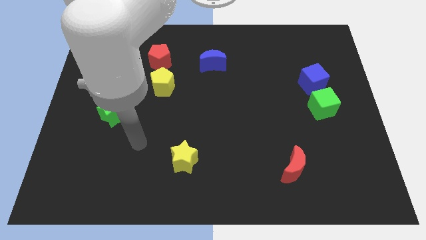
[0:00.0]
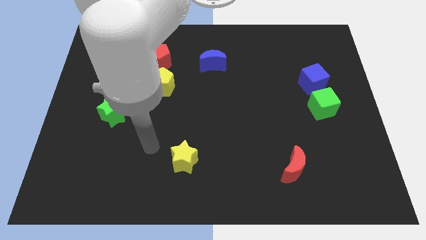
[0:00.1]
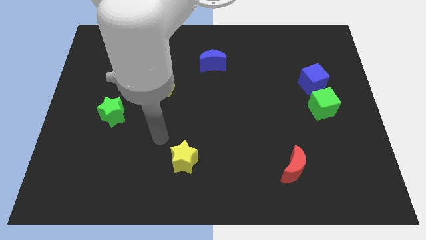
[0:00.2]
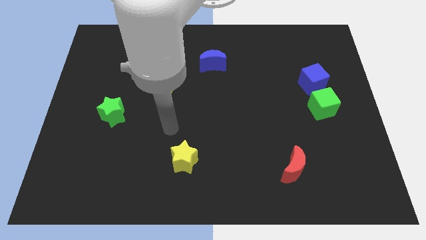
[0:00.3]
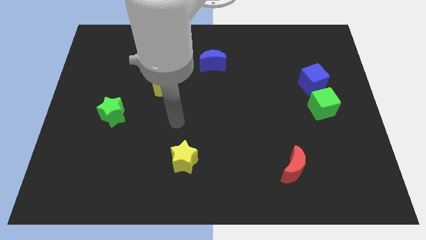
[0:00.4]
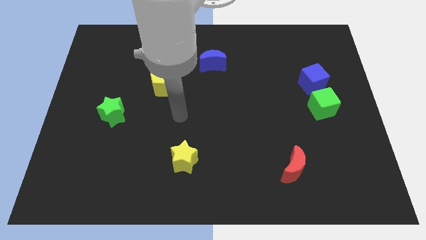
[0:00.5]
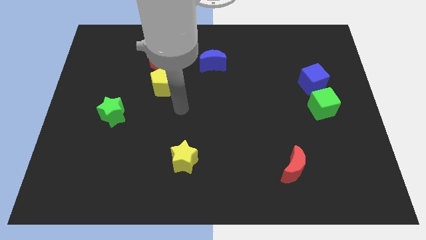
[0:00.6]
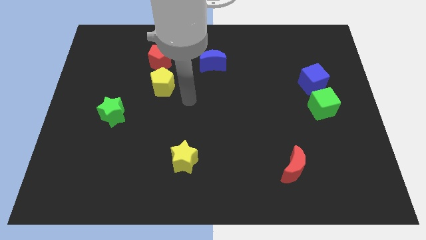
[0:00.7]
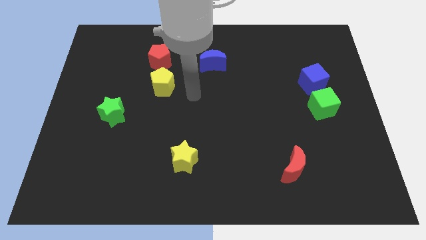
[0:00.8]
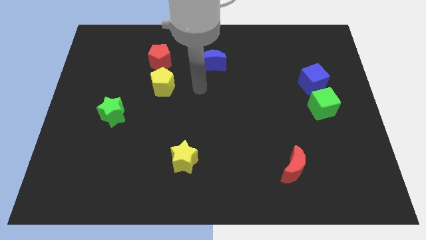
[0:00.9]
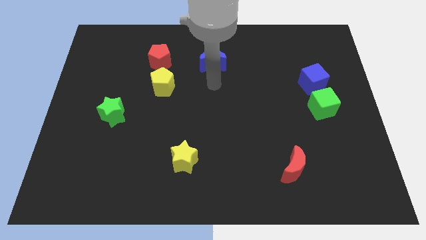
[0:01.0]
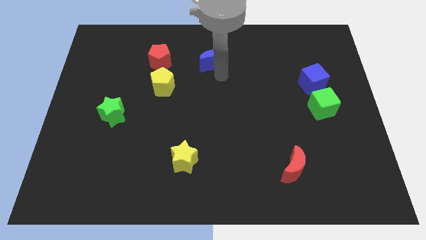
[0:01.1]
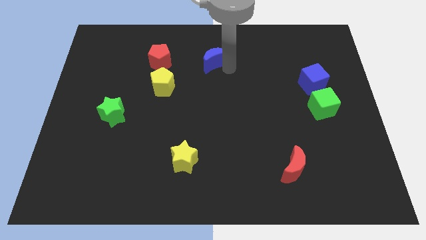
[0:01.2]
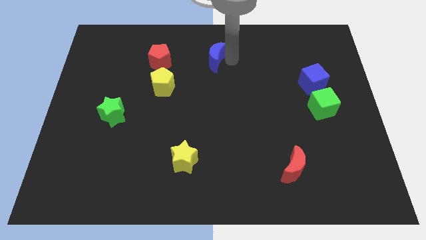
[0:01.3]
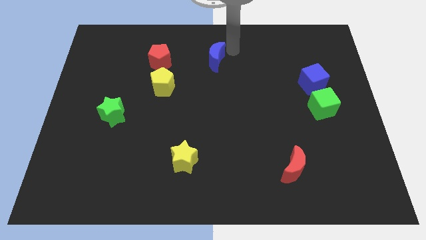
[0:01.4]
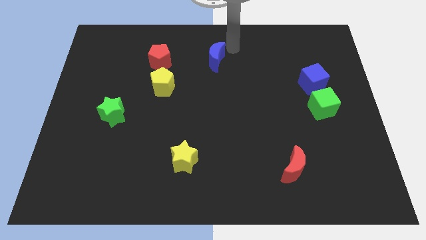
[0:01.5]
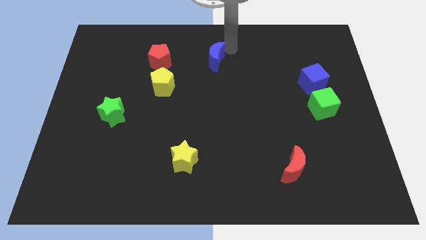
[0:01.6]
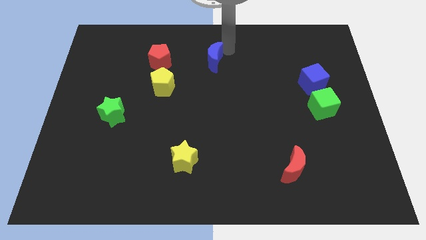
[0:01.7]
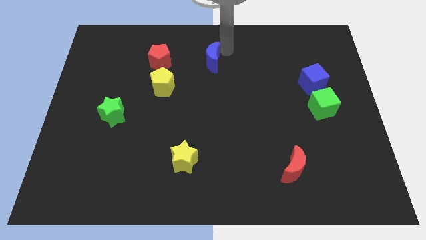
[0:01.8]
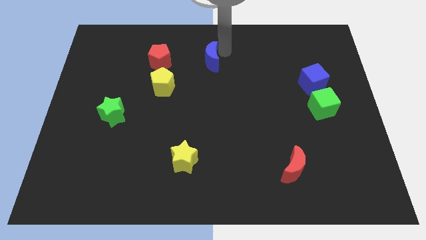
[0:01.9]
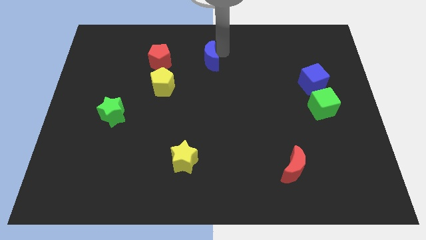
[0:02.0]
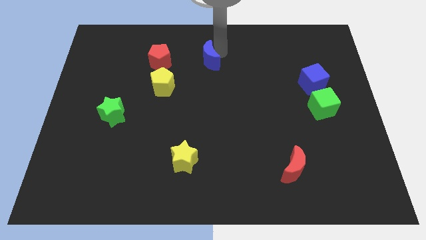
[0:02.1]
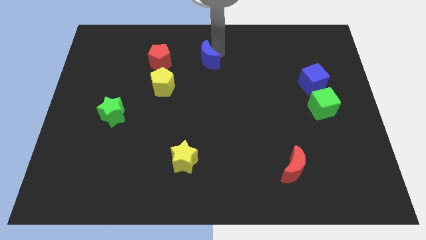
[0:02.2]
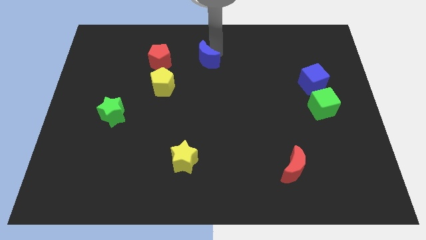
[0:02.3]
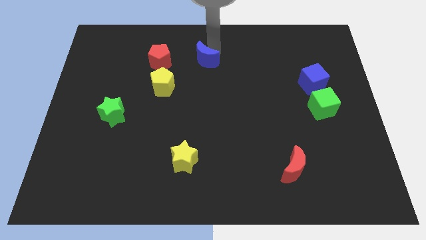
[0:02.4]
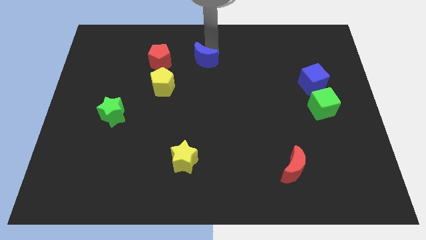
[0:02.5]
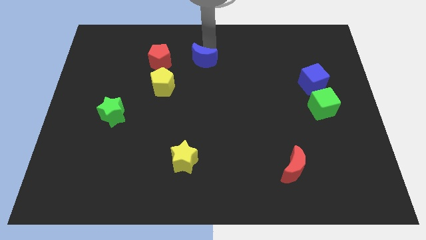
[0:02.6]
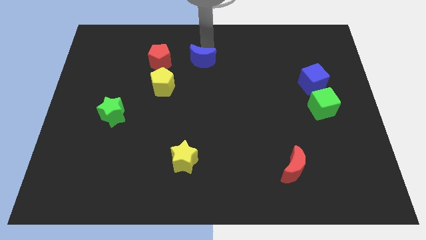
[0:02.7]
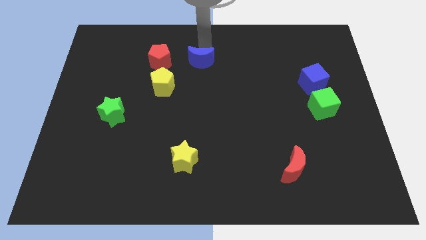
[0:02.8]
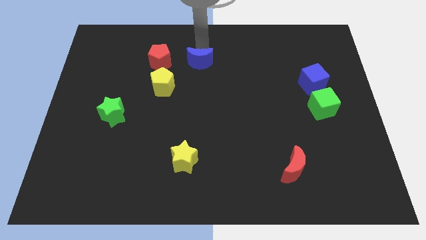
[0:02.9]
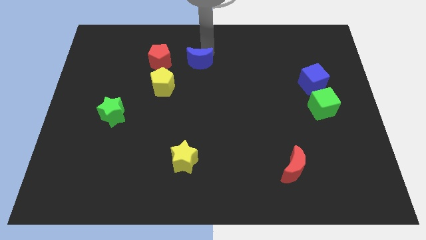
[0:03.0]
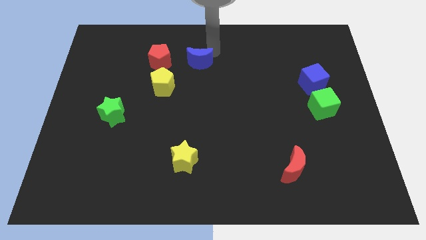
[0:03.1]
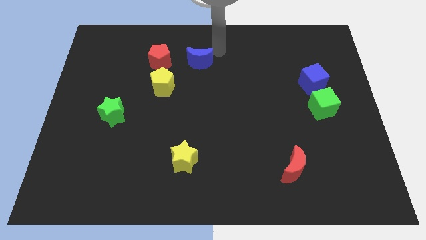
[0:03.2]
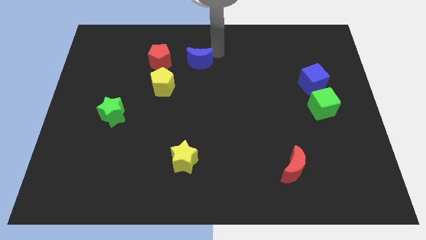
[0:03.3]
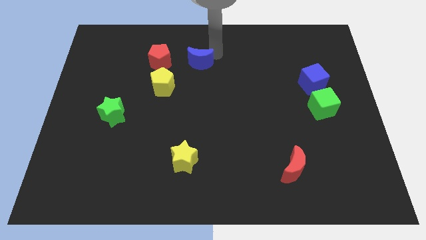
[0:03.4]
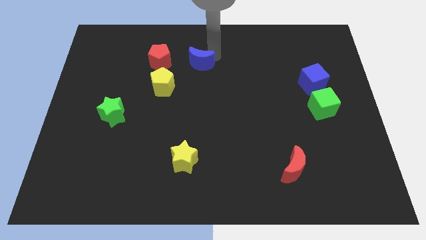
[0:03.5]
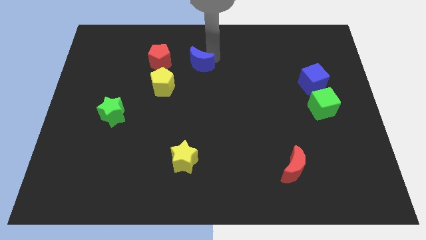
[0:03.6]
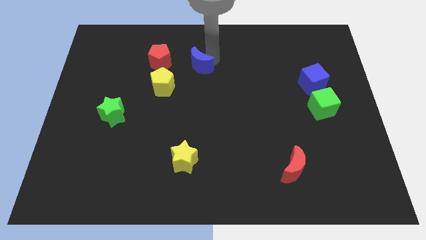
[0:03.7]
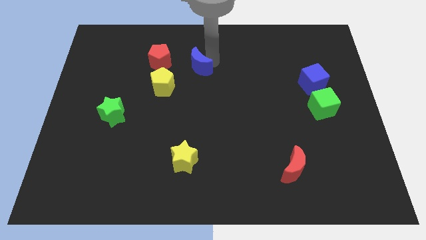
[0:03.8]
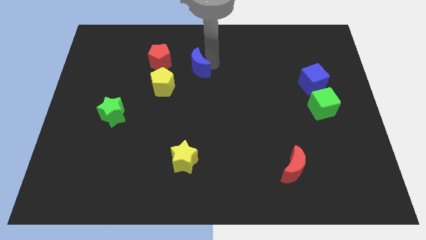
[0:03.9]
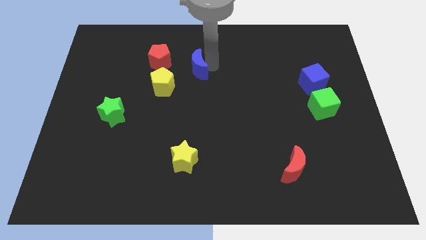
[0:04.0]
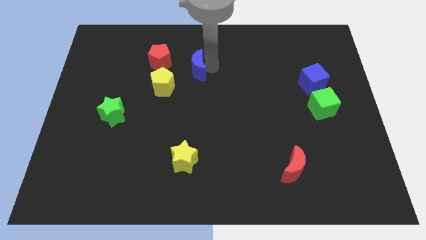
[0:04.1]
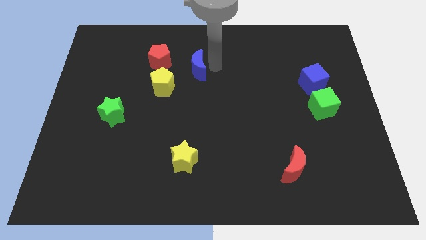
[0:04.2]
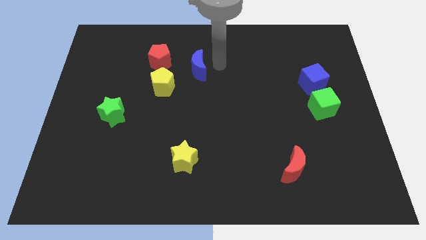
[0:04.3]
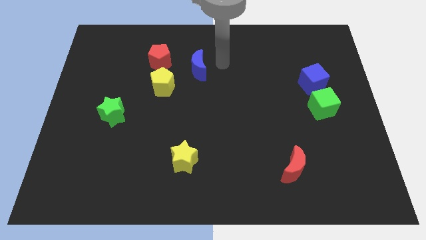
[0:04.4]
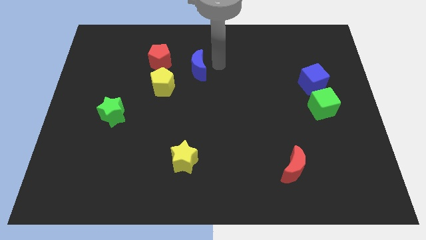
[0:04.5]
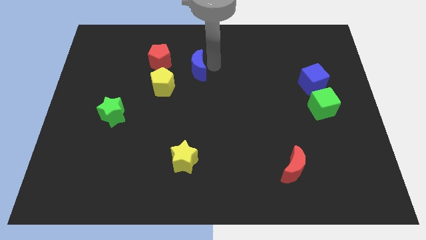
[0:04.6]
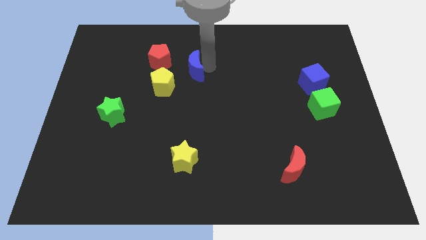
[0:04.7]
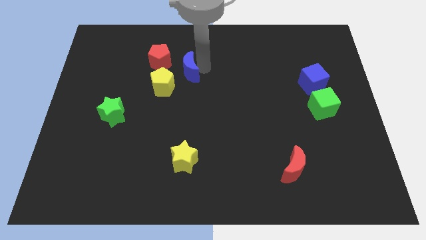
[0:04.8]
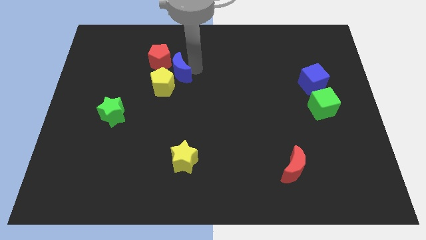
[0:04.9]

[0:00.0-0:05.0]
put the blue moon to the yellow pentagon

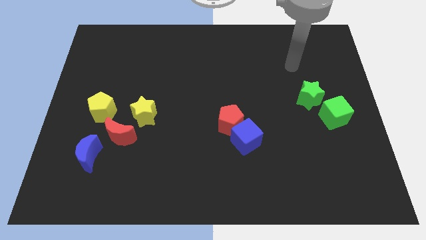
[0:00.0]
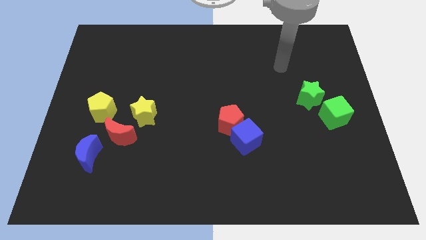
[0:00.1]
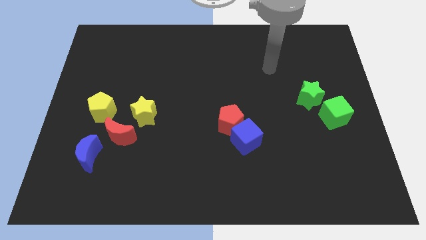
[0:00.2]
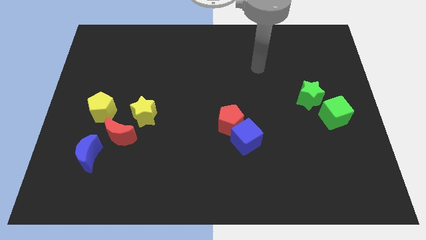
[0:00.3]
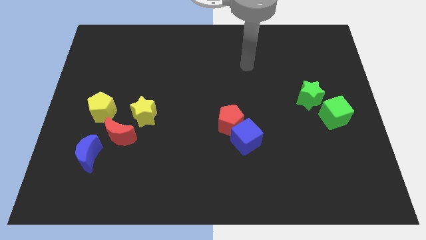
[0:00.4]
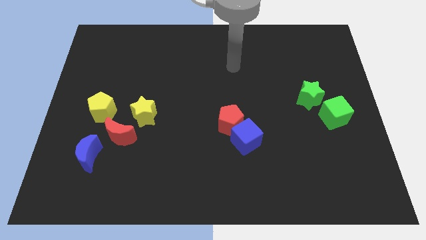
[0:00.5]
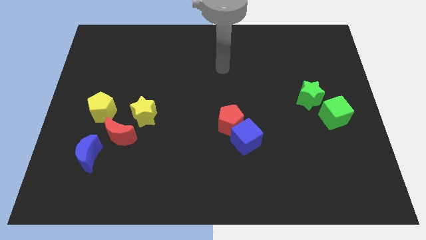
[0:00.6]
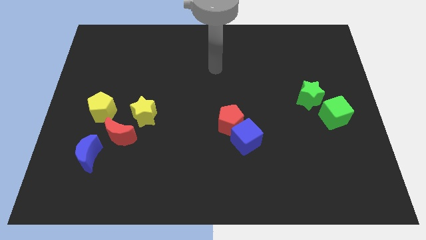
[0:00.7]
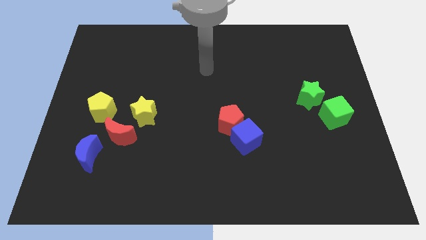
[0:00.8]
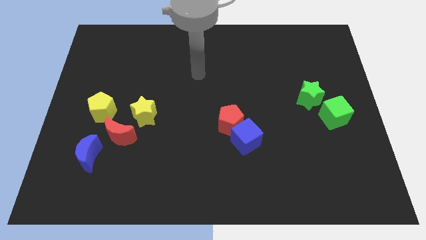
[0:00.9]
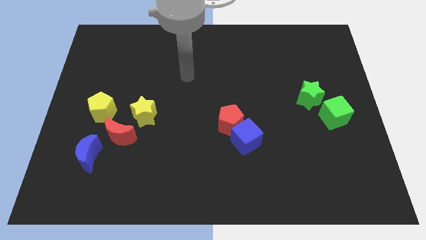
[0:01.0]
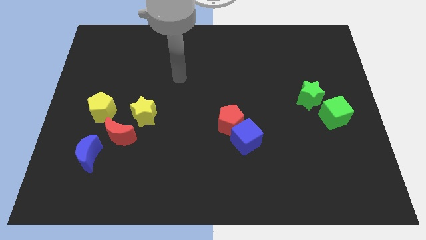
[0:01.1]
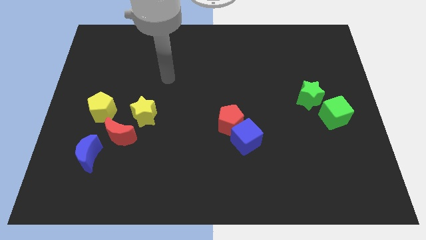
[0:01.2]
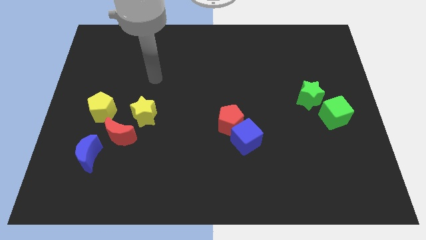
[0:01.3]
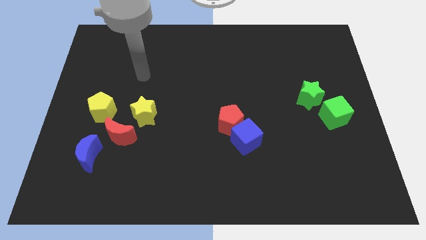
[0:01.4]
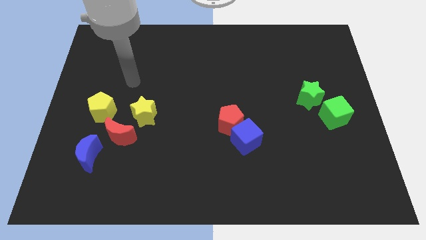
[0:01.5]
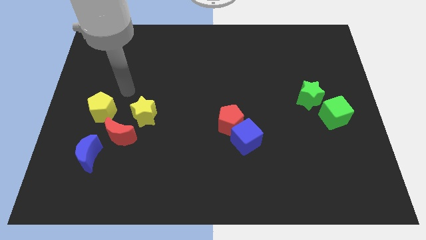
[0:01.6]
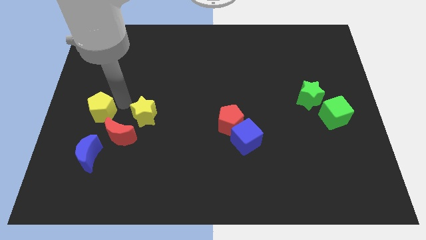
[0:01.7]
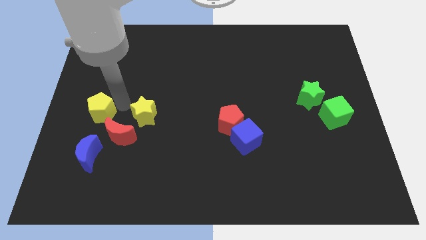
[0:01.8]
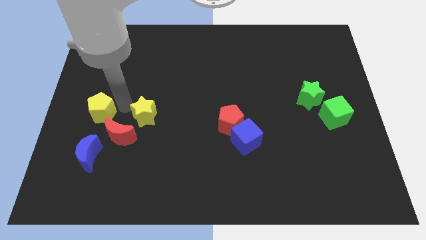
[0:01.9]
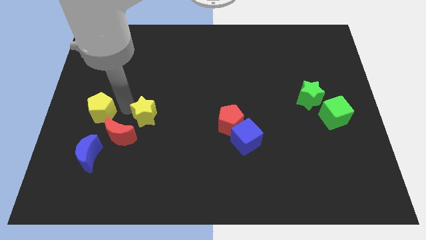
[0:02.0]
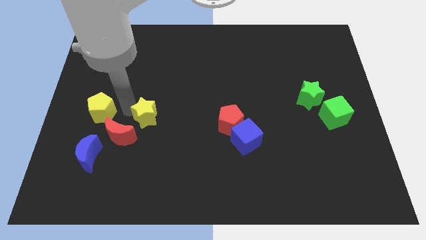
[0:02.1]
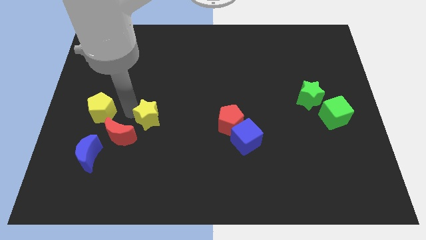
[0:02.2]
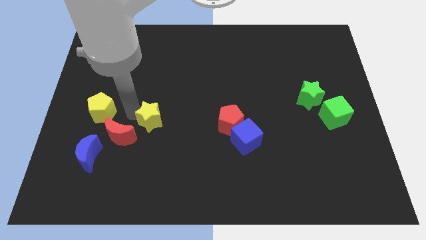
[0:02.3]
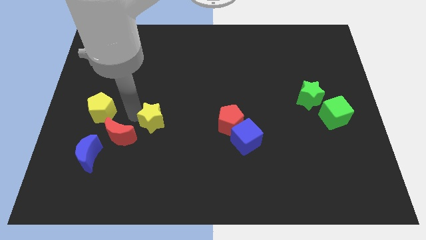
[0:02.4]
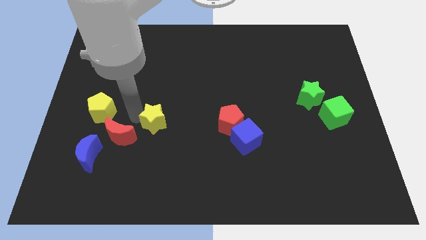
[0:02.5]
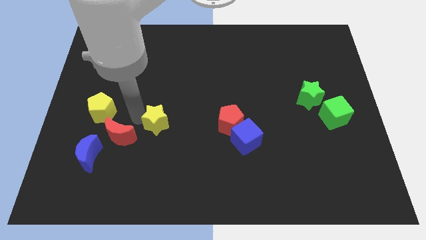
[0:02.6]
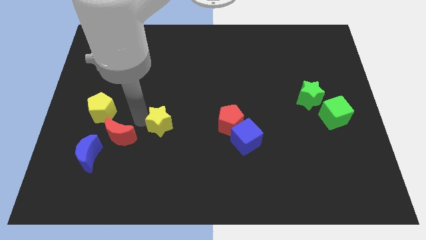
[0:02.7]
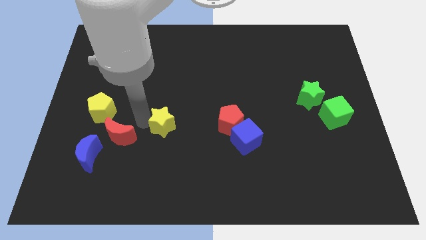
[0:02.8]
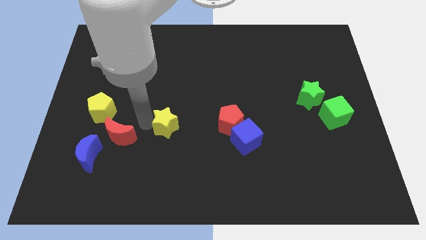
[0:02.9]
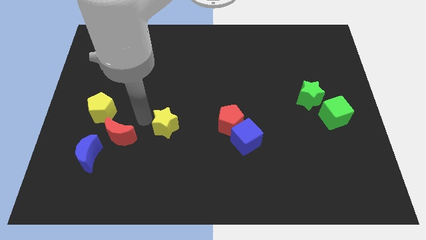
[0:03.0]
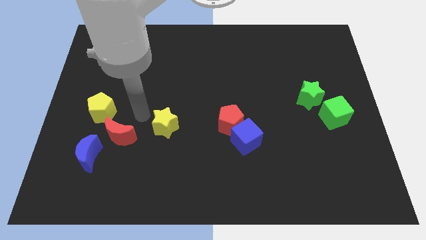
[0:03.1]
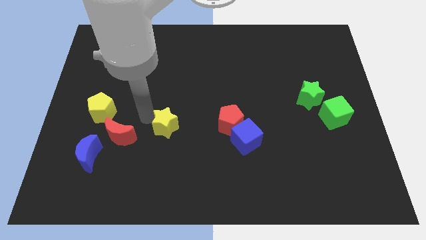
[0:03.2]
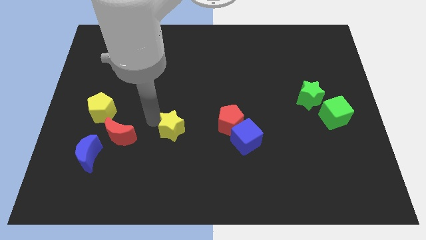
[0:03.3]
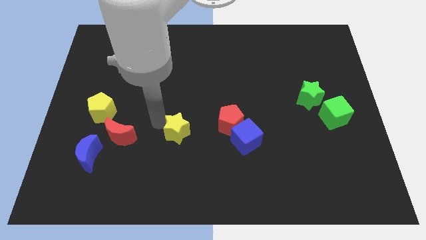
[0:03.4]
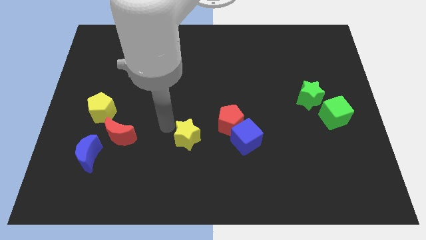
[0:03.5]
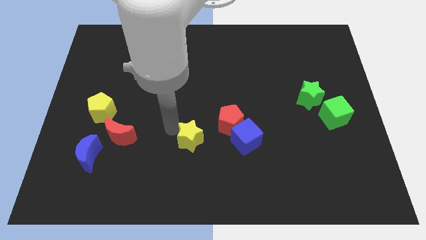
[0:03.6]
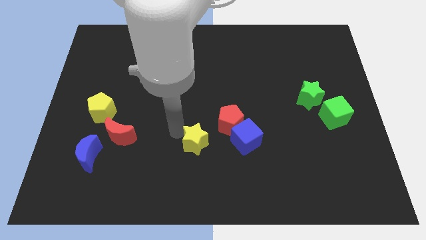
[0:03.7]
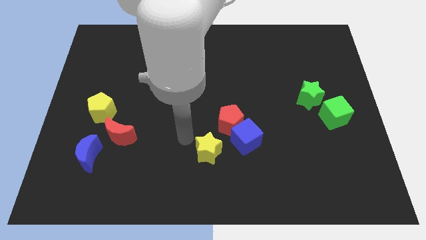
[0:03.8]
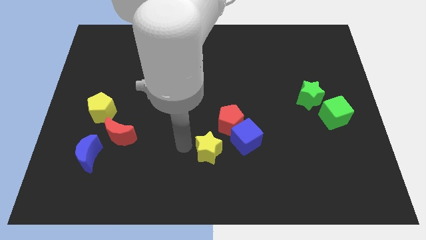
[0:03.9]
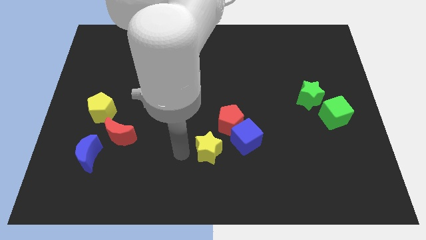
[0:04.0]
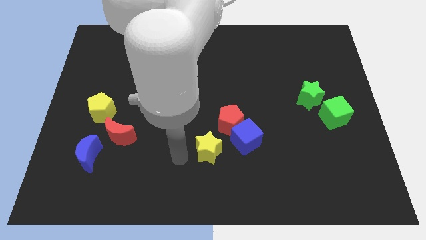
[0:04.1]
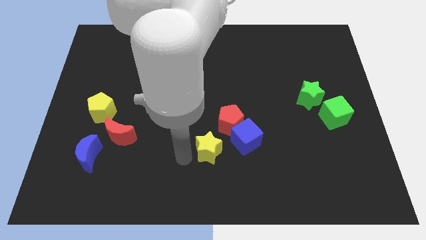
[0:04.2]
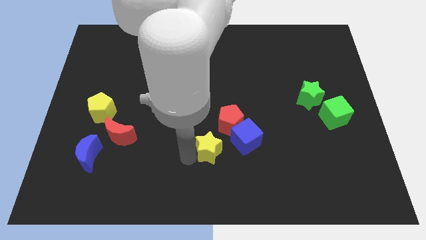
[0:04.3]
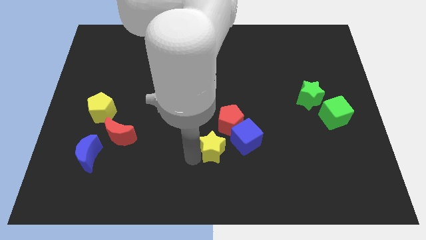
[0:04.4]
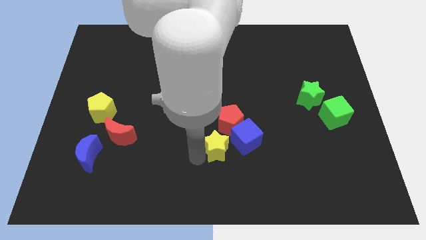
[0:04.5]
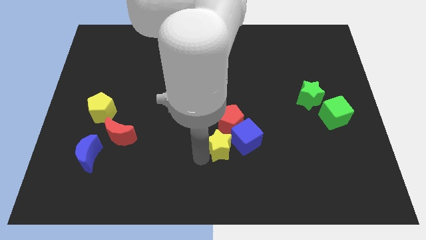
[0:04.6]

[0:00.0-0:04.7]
move the yellow star to the blue cube
